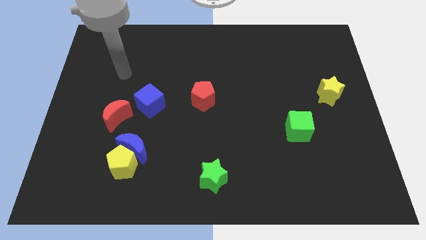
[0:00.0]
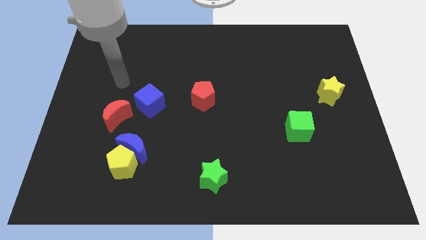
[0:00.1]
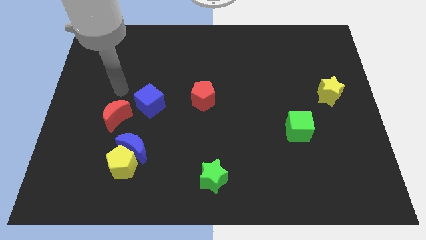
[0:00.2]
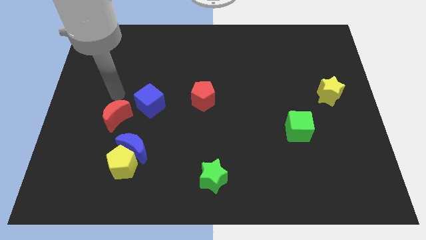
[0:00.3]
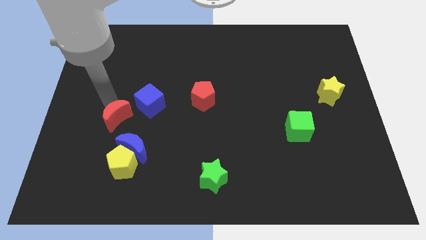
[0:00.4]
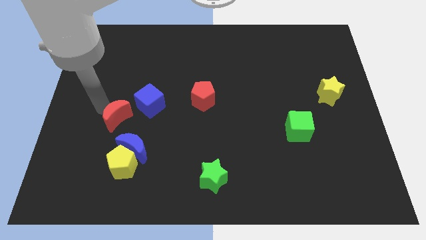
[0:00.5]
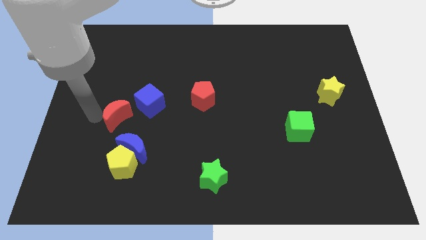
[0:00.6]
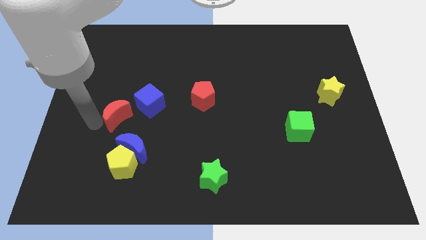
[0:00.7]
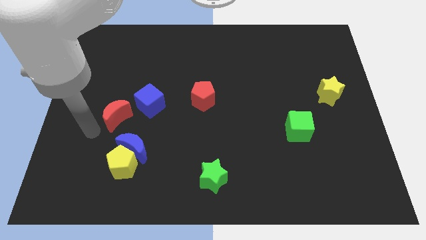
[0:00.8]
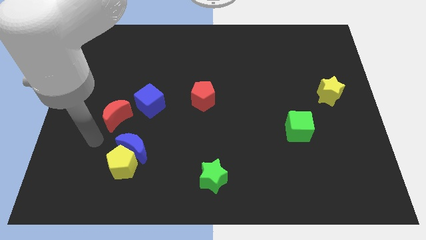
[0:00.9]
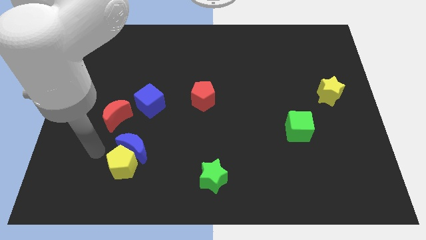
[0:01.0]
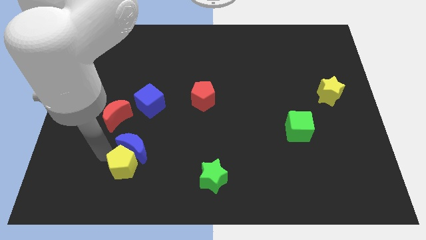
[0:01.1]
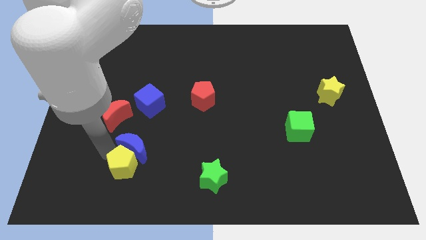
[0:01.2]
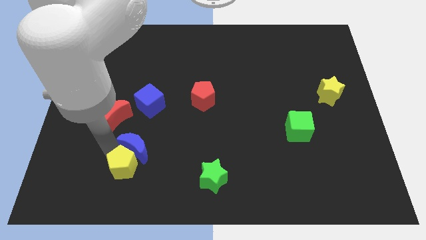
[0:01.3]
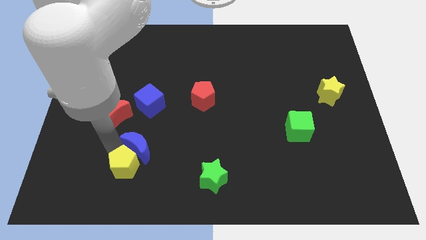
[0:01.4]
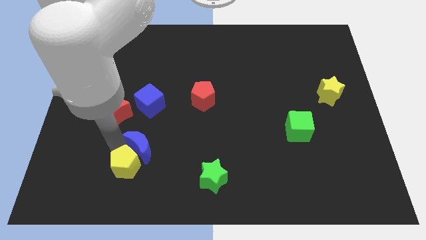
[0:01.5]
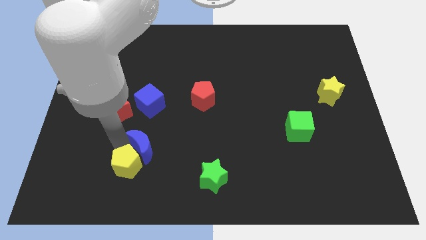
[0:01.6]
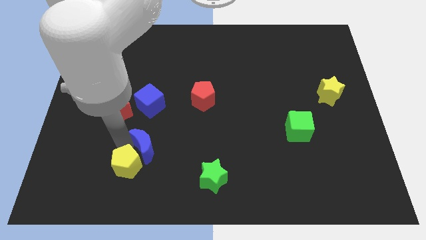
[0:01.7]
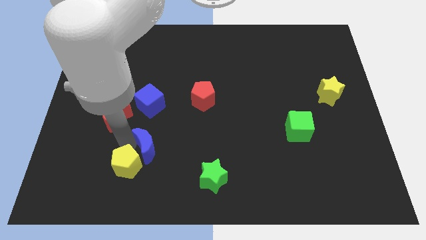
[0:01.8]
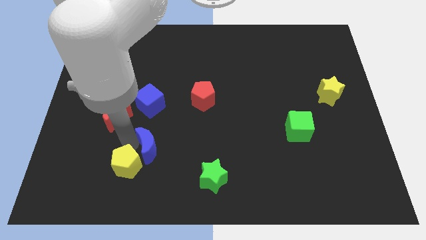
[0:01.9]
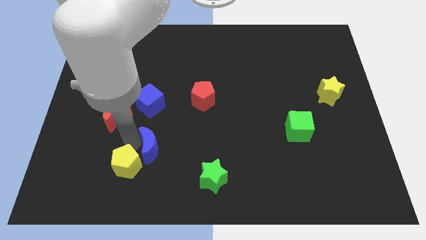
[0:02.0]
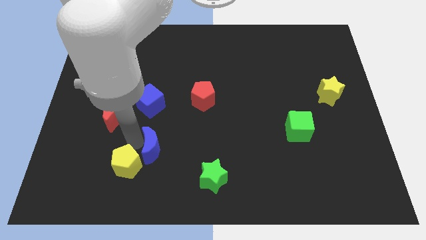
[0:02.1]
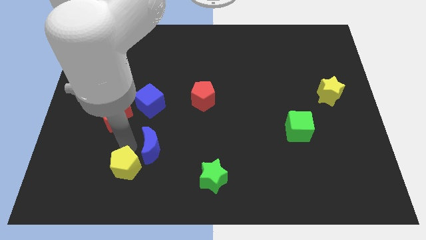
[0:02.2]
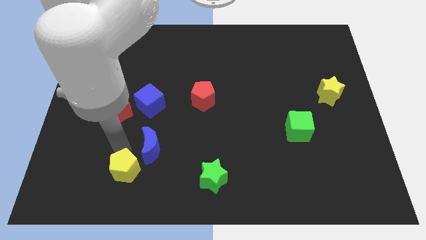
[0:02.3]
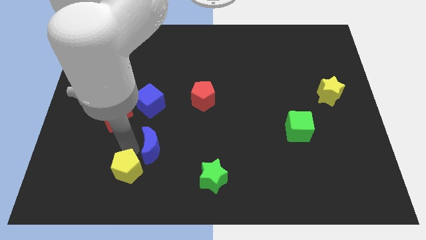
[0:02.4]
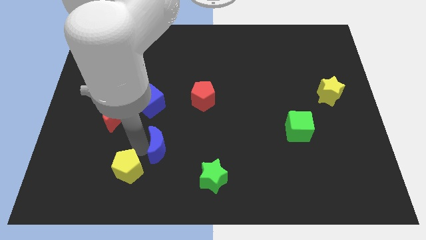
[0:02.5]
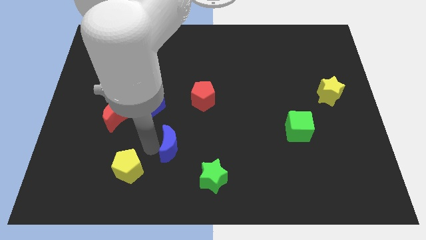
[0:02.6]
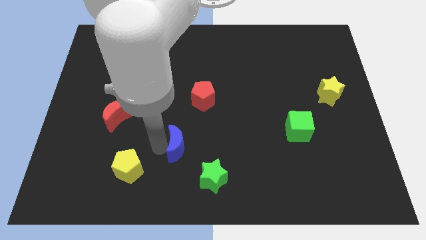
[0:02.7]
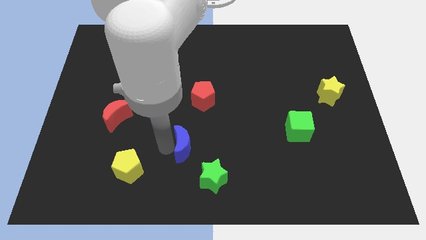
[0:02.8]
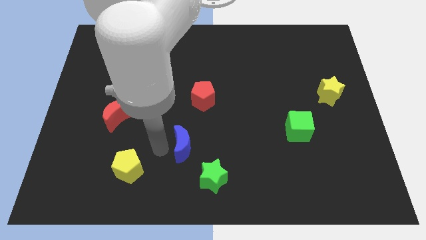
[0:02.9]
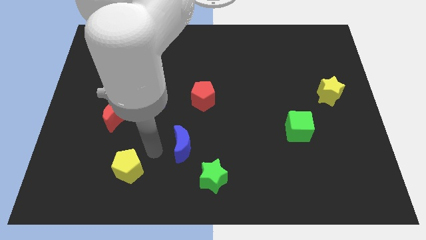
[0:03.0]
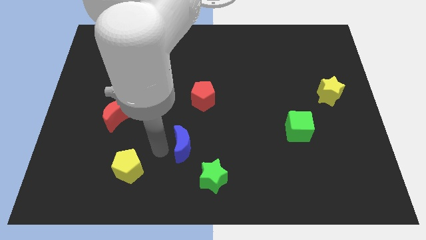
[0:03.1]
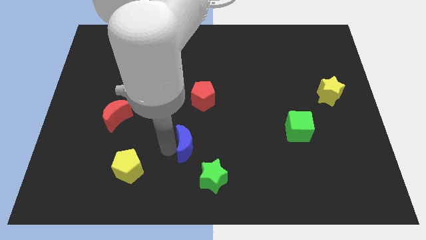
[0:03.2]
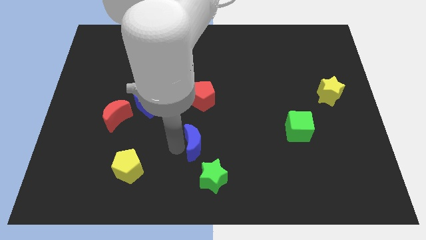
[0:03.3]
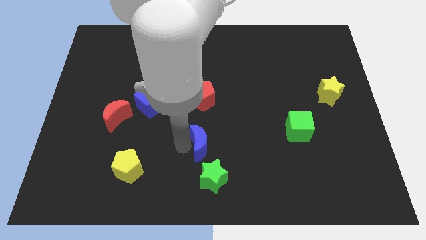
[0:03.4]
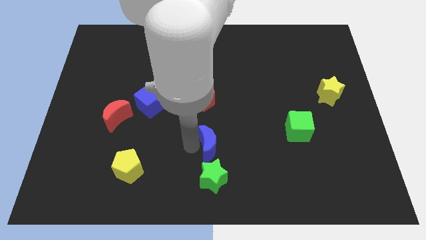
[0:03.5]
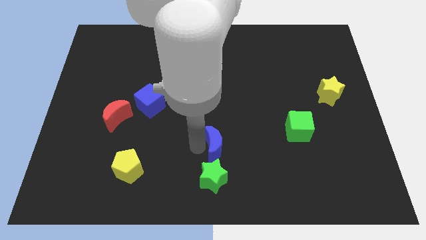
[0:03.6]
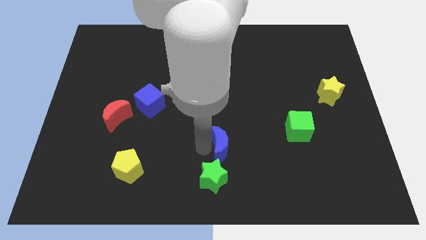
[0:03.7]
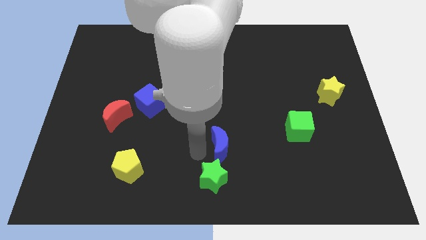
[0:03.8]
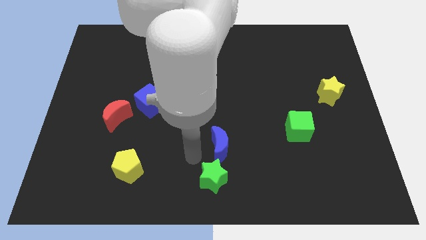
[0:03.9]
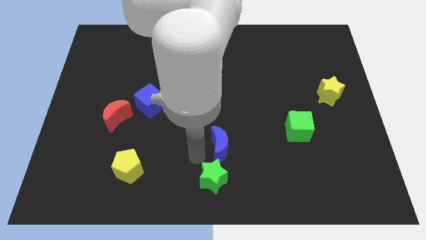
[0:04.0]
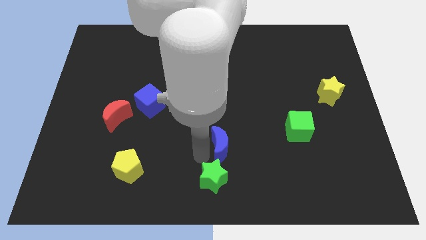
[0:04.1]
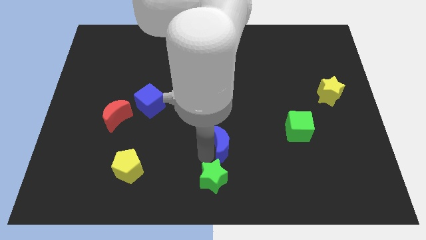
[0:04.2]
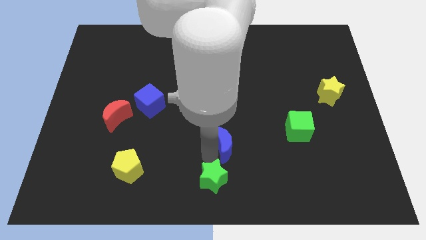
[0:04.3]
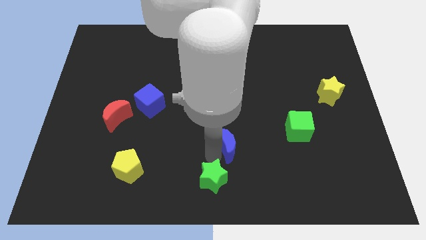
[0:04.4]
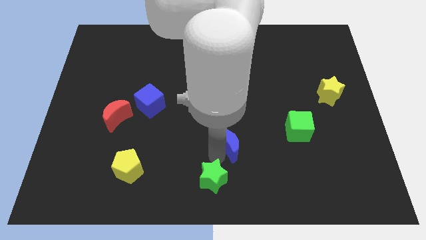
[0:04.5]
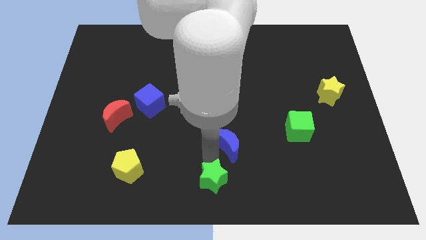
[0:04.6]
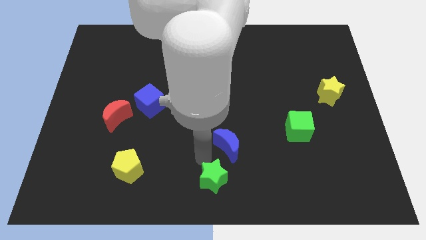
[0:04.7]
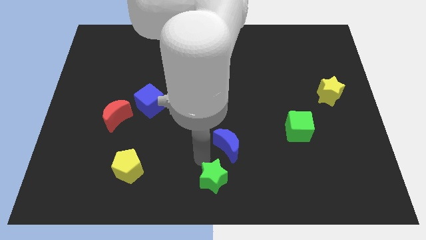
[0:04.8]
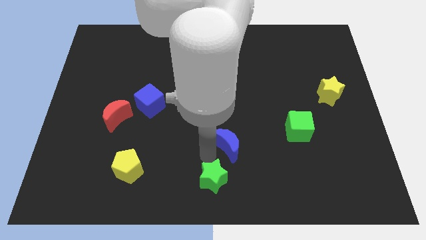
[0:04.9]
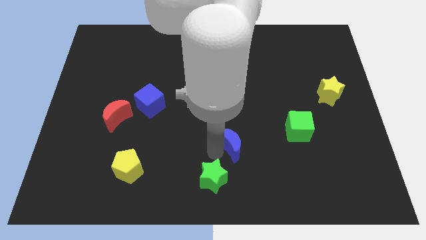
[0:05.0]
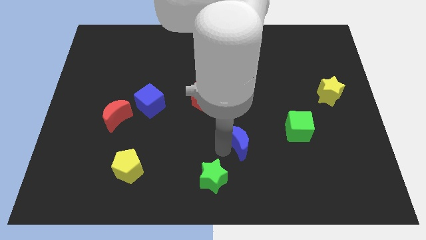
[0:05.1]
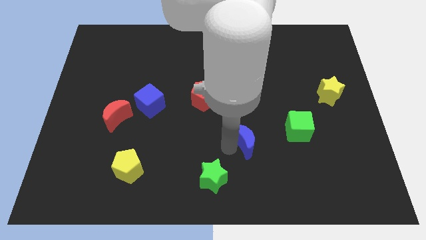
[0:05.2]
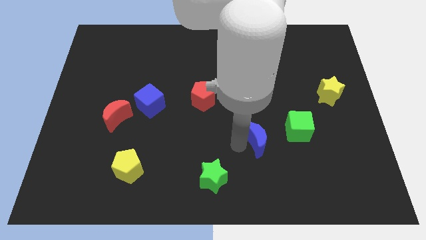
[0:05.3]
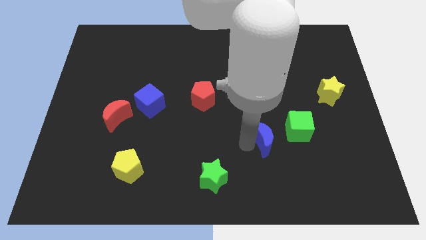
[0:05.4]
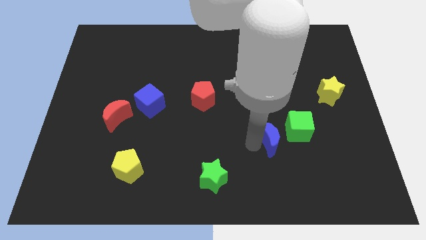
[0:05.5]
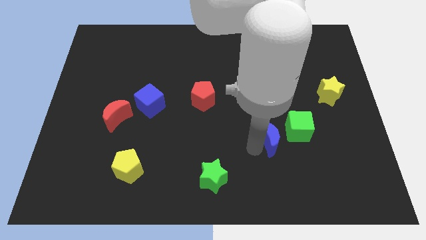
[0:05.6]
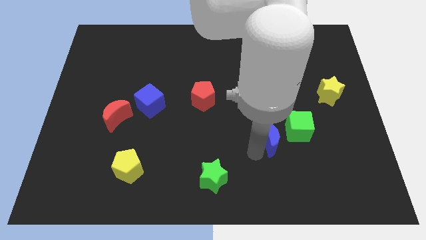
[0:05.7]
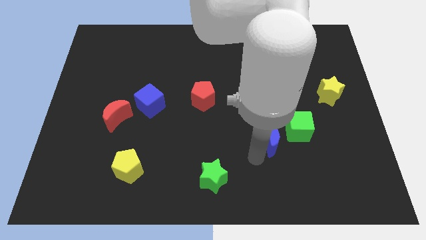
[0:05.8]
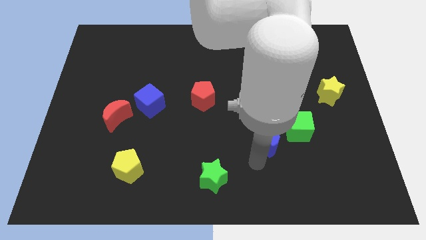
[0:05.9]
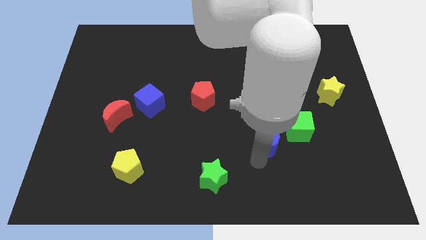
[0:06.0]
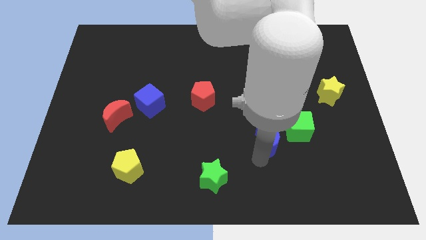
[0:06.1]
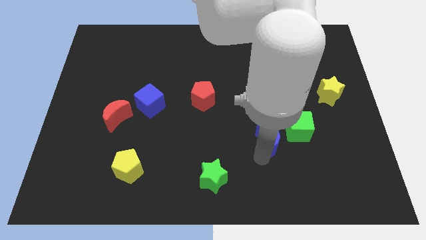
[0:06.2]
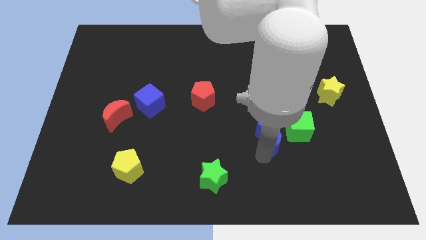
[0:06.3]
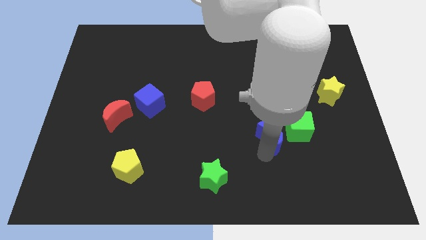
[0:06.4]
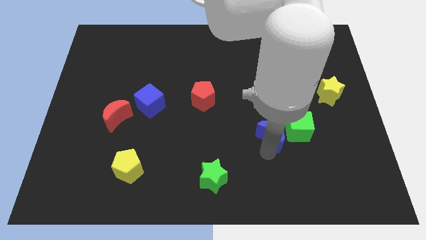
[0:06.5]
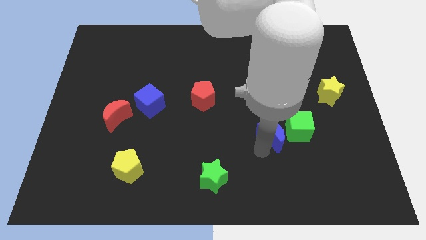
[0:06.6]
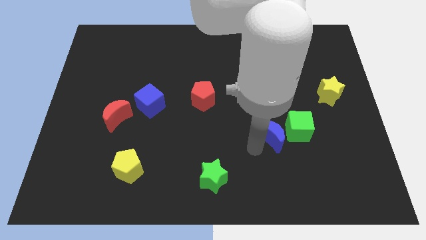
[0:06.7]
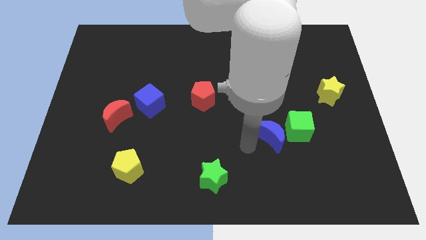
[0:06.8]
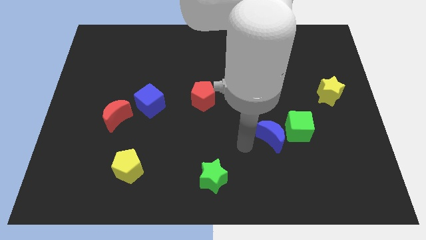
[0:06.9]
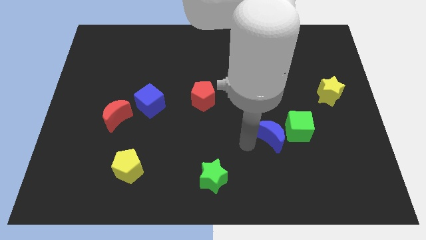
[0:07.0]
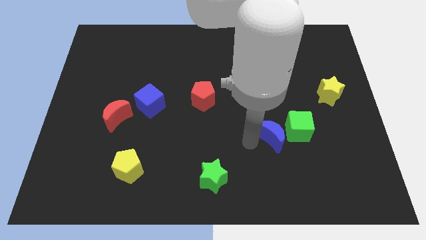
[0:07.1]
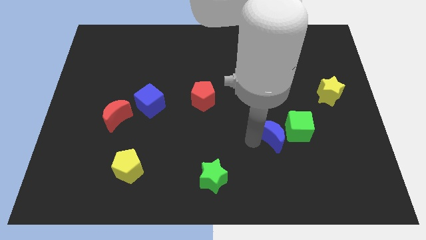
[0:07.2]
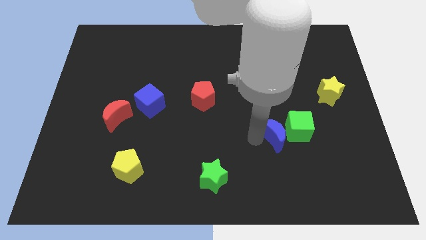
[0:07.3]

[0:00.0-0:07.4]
put the blue moon to the green cube
